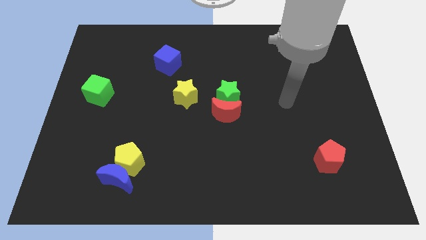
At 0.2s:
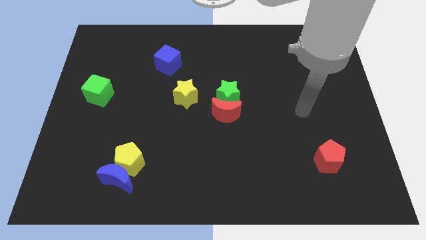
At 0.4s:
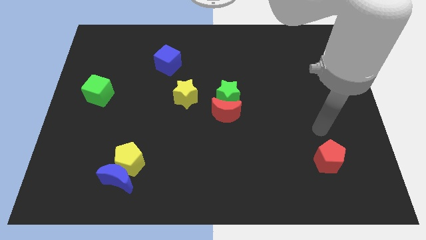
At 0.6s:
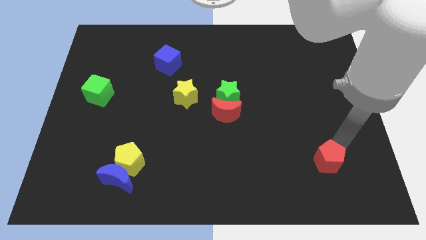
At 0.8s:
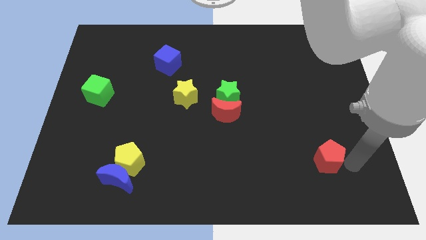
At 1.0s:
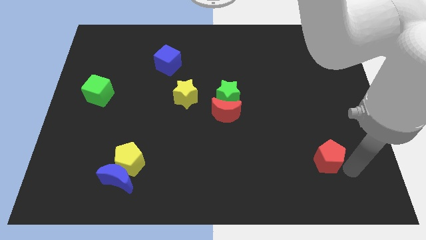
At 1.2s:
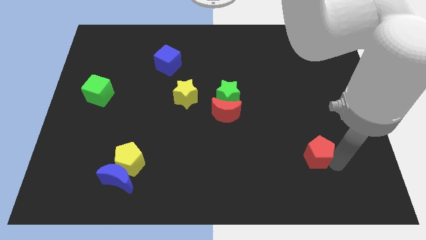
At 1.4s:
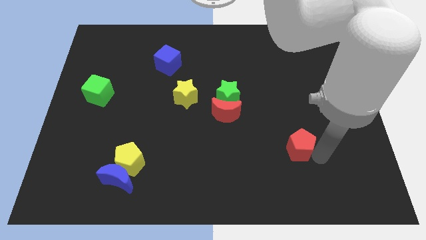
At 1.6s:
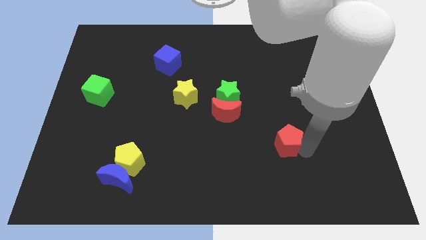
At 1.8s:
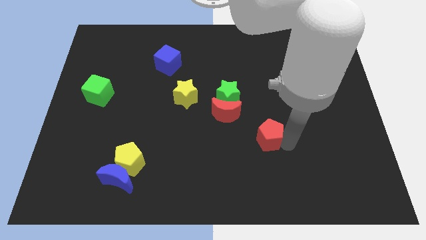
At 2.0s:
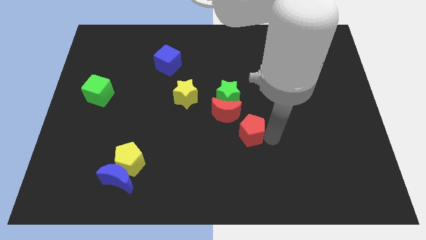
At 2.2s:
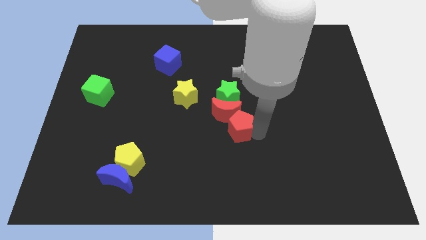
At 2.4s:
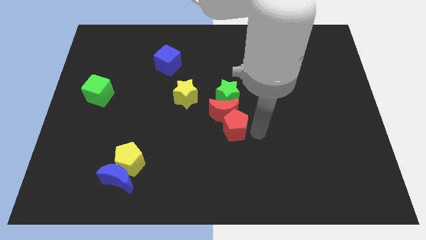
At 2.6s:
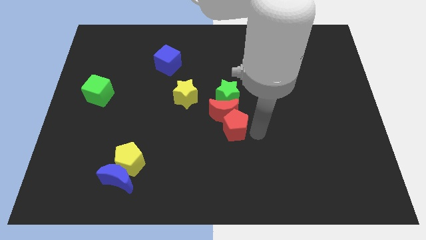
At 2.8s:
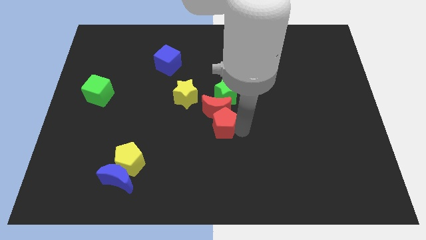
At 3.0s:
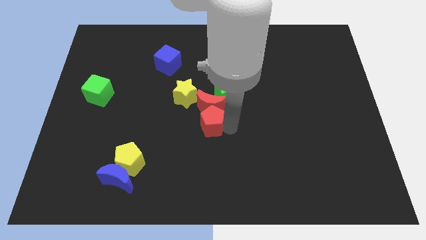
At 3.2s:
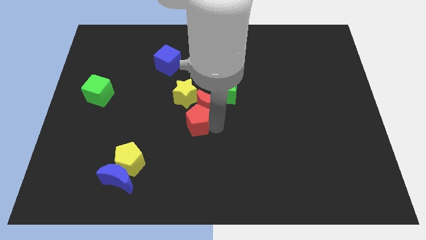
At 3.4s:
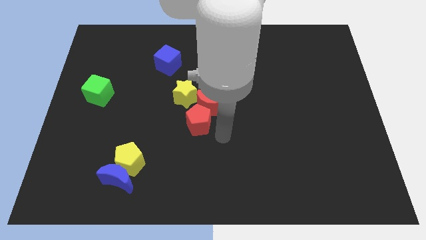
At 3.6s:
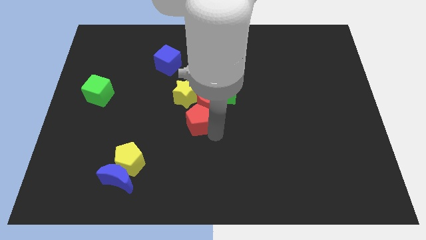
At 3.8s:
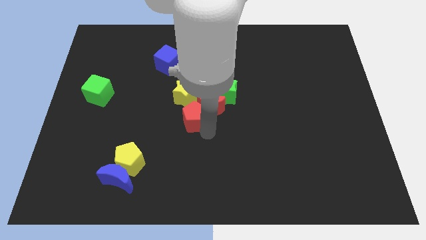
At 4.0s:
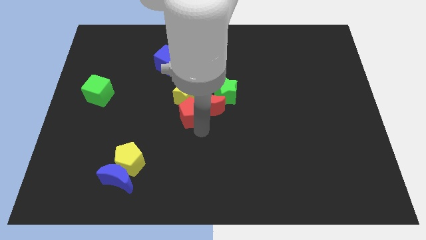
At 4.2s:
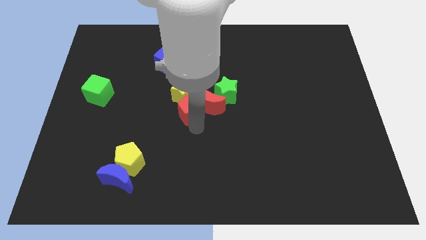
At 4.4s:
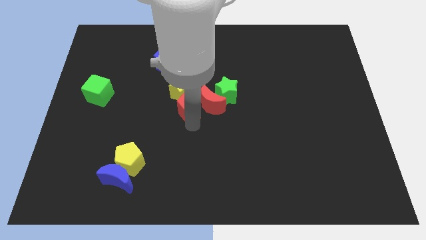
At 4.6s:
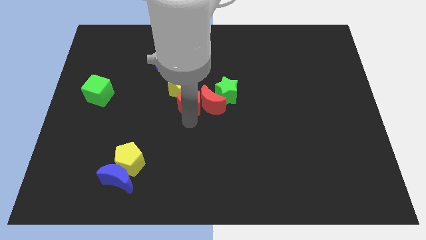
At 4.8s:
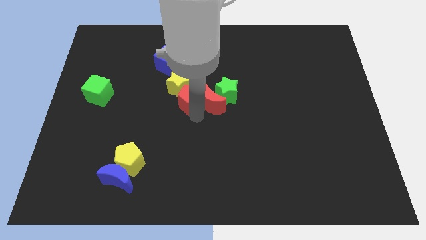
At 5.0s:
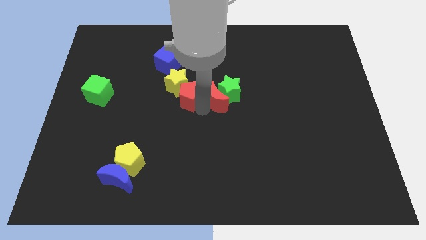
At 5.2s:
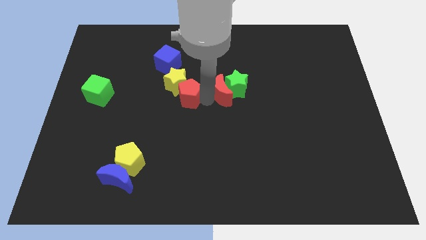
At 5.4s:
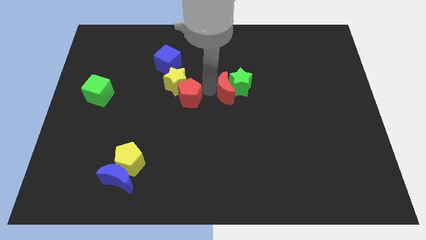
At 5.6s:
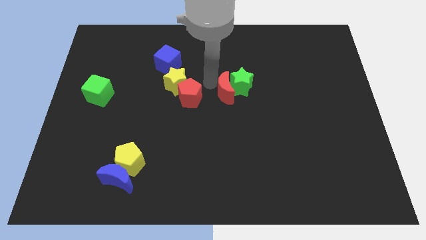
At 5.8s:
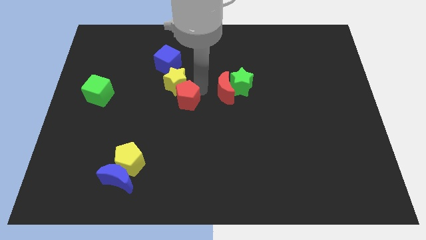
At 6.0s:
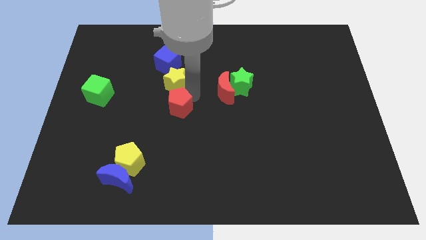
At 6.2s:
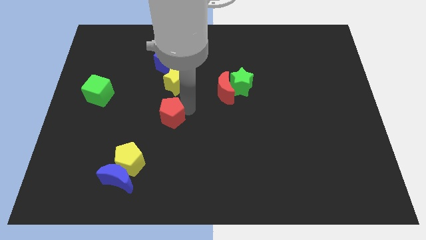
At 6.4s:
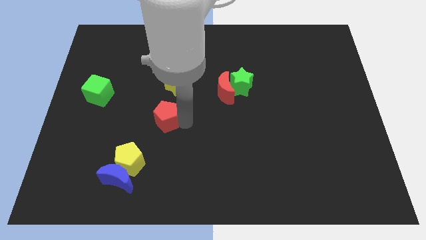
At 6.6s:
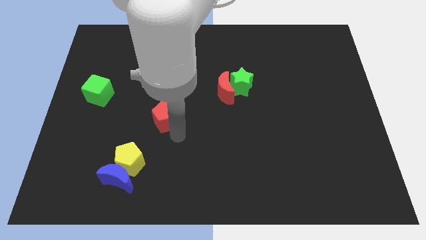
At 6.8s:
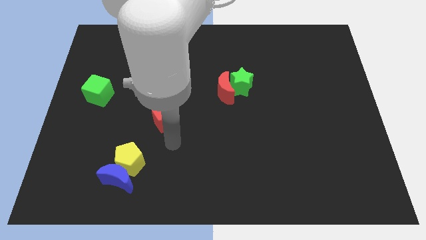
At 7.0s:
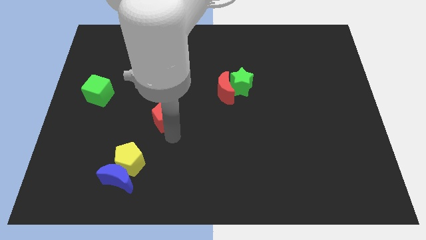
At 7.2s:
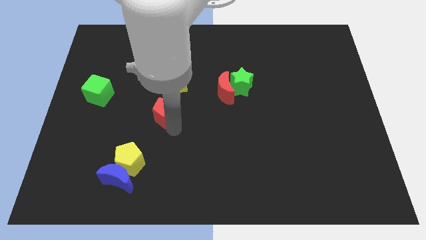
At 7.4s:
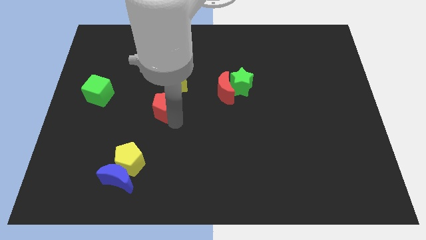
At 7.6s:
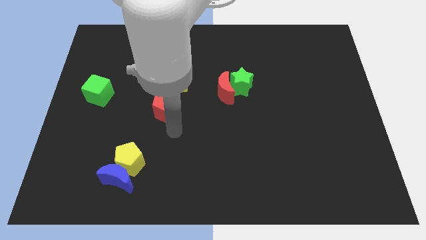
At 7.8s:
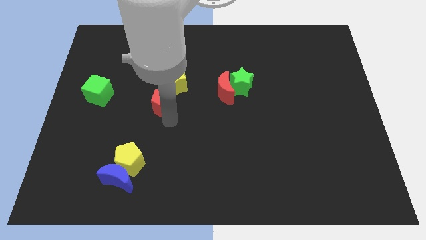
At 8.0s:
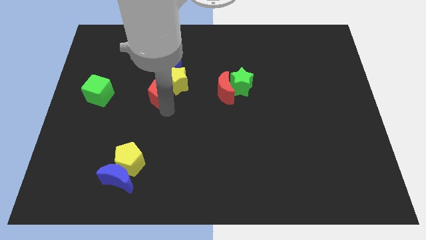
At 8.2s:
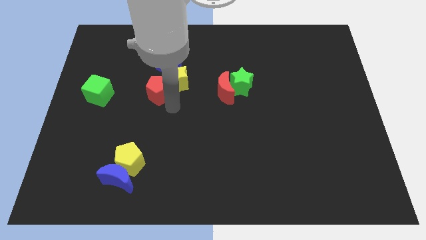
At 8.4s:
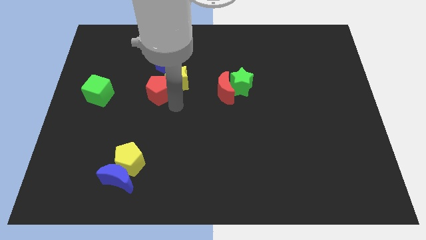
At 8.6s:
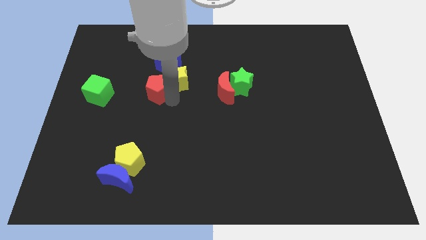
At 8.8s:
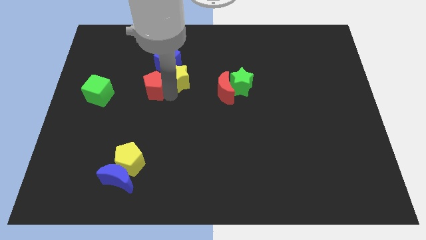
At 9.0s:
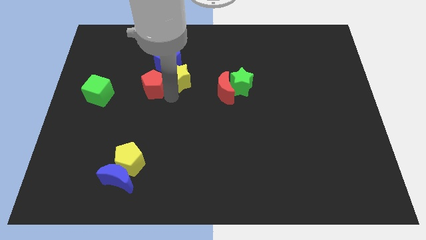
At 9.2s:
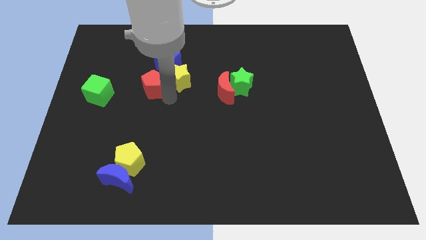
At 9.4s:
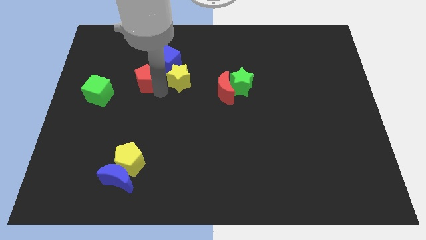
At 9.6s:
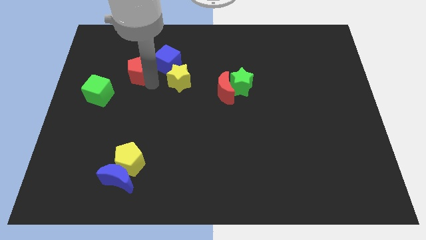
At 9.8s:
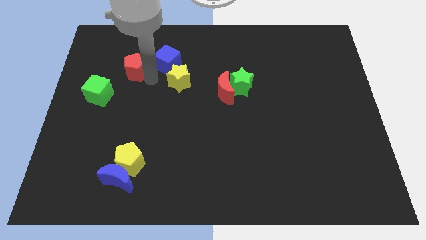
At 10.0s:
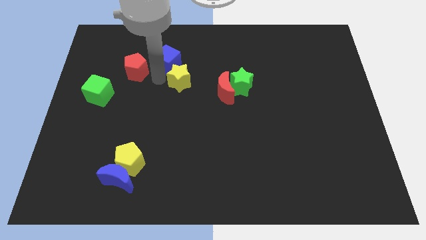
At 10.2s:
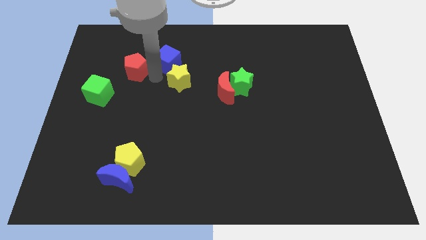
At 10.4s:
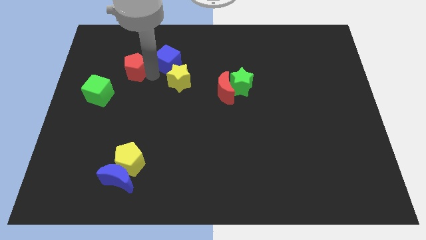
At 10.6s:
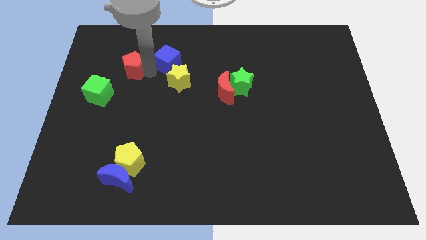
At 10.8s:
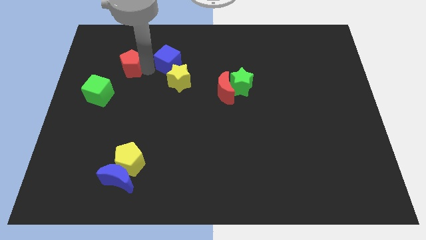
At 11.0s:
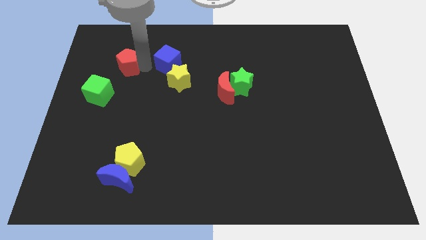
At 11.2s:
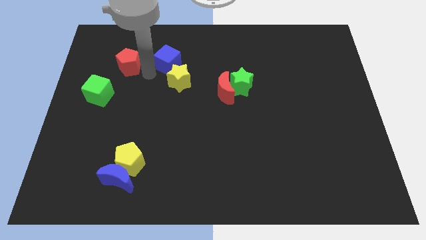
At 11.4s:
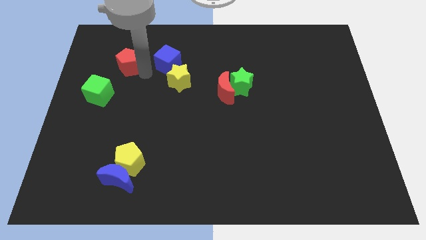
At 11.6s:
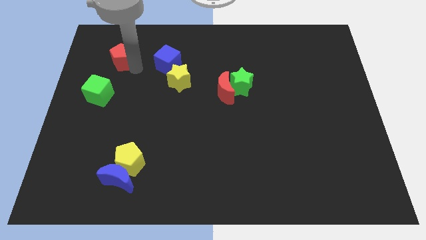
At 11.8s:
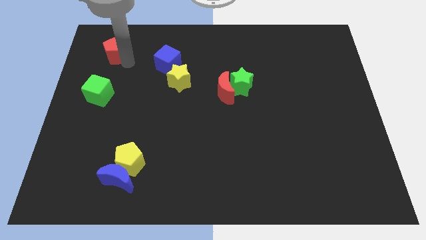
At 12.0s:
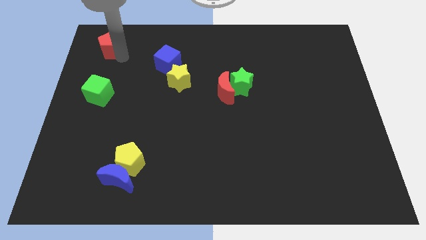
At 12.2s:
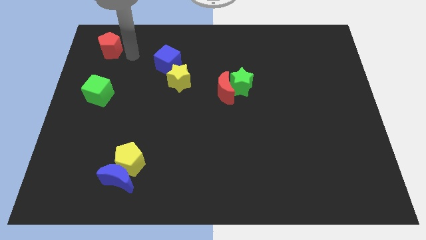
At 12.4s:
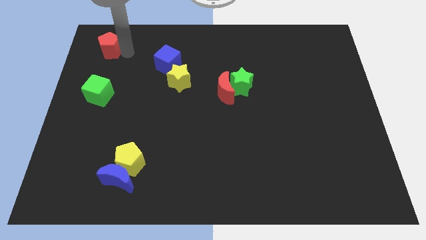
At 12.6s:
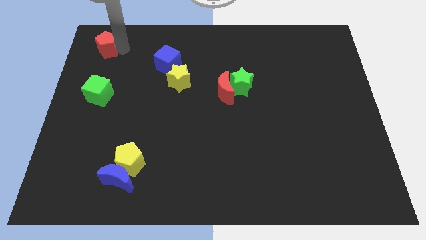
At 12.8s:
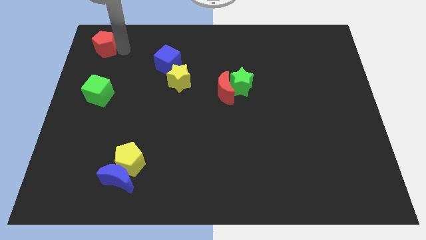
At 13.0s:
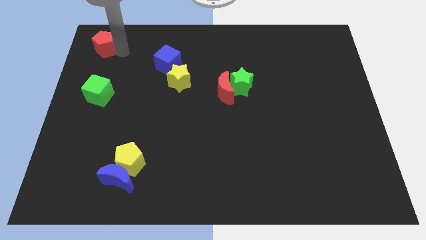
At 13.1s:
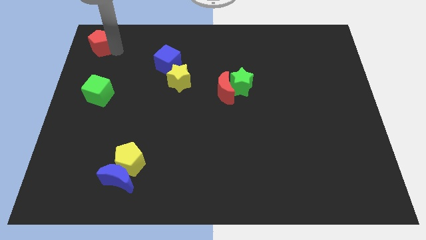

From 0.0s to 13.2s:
push the red pentagon to the top left

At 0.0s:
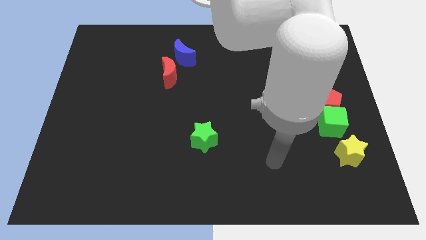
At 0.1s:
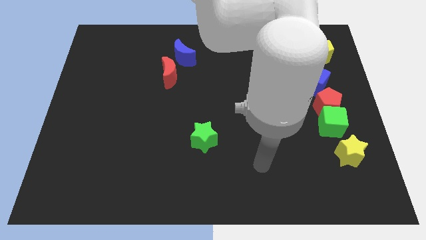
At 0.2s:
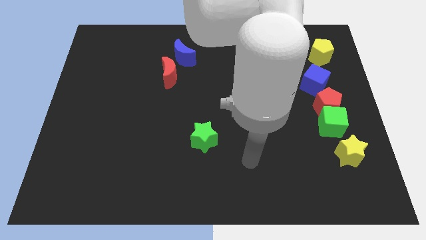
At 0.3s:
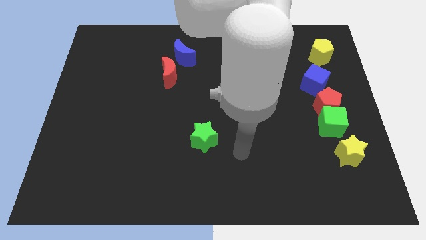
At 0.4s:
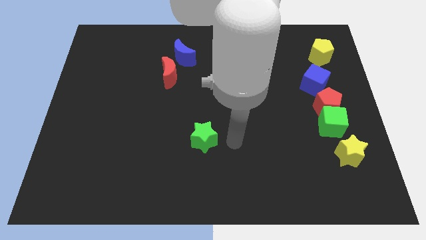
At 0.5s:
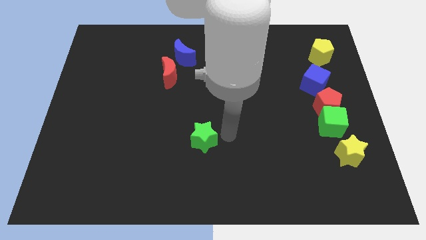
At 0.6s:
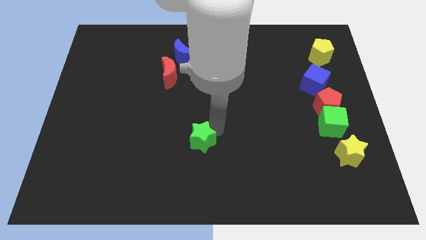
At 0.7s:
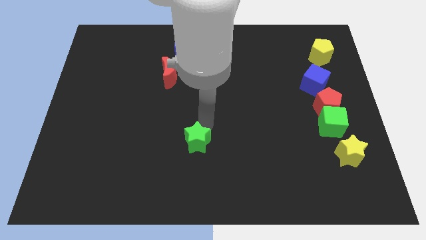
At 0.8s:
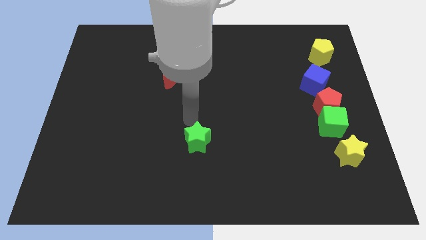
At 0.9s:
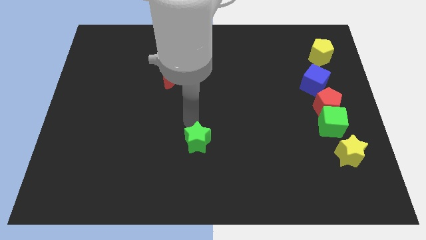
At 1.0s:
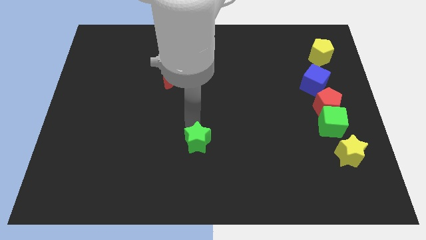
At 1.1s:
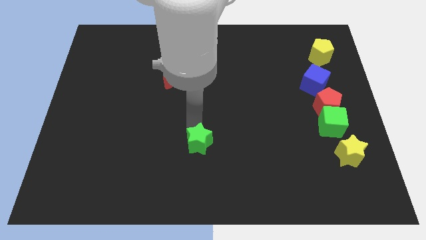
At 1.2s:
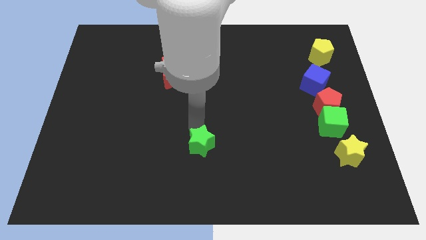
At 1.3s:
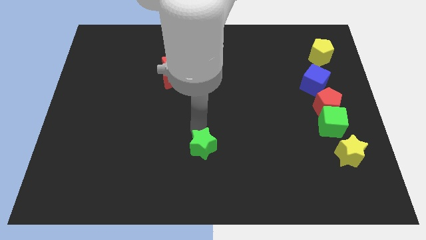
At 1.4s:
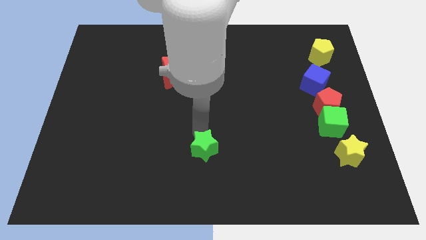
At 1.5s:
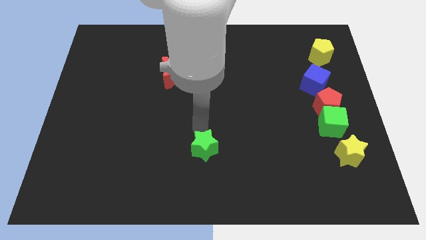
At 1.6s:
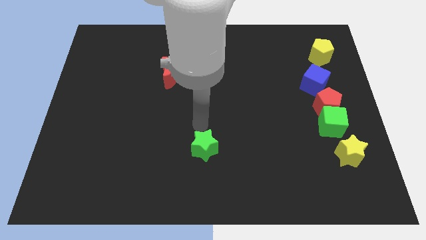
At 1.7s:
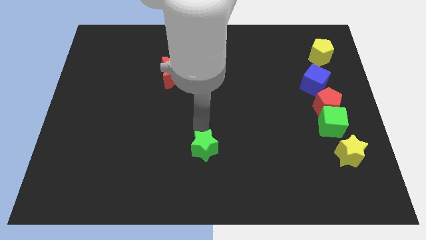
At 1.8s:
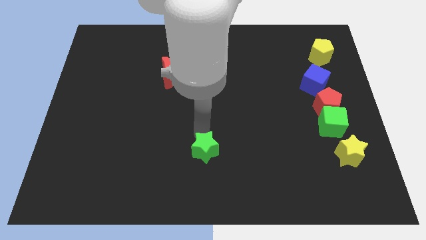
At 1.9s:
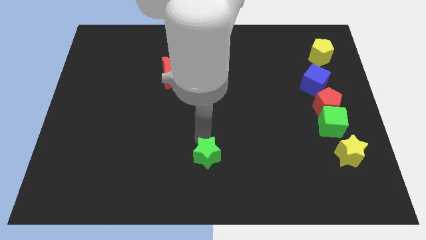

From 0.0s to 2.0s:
push the green star to the bottom
